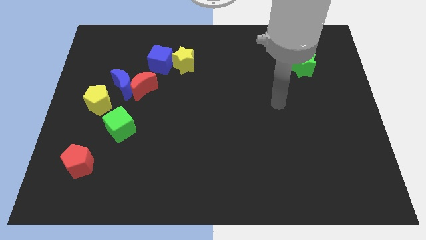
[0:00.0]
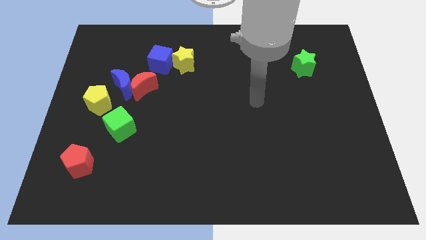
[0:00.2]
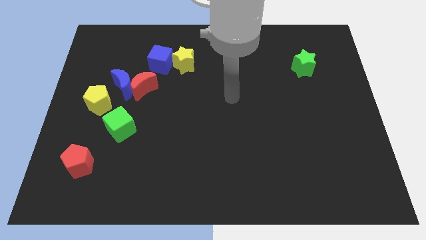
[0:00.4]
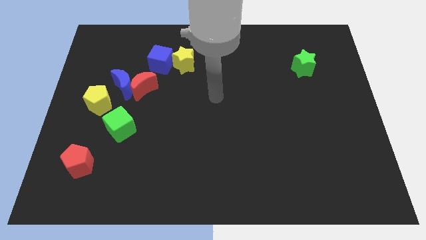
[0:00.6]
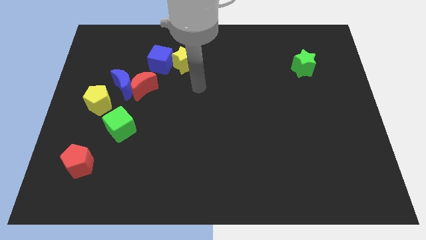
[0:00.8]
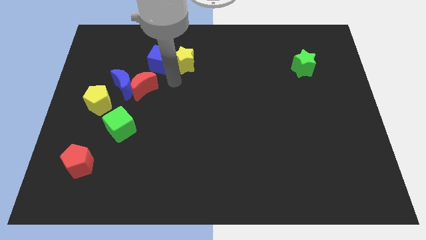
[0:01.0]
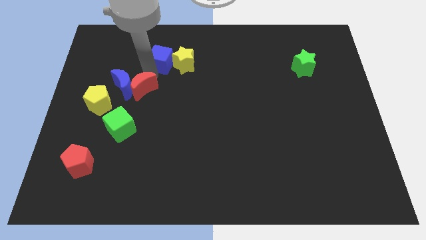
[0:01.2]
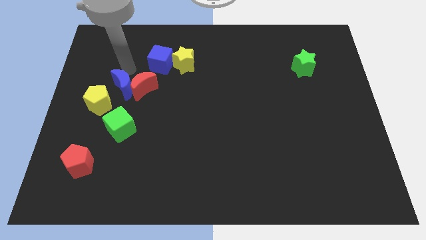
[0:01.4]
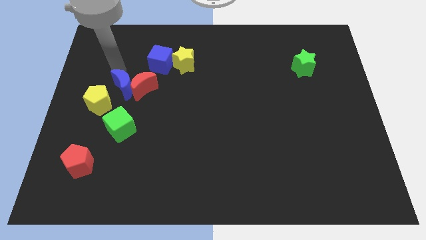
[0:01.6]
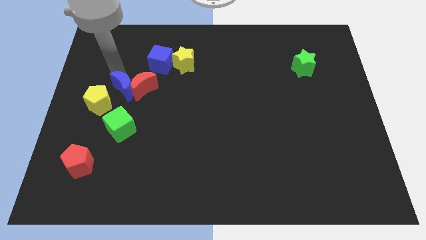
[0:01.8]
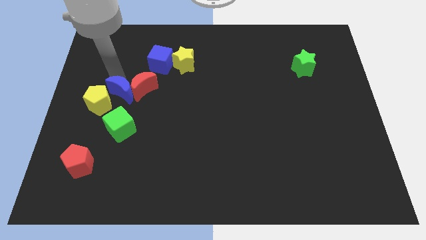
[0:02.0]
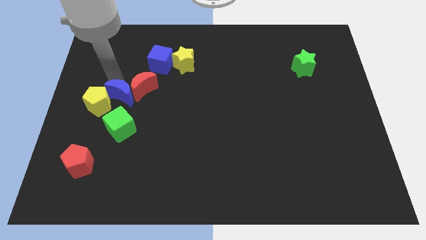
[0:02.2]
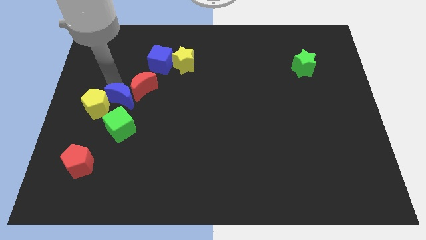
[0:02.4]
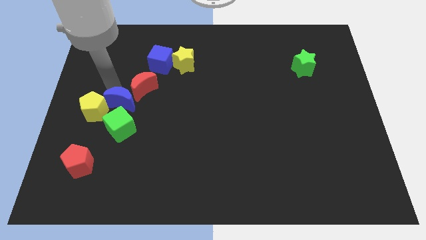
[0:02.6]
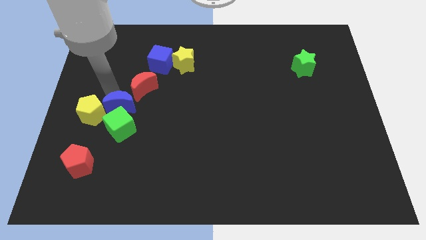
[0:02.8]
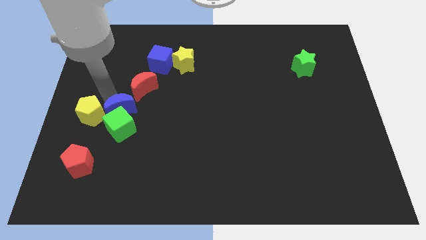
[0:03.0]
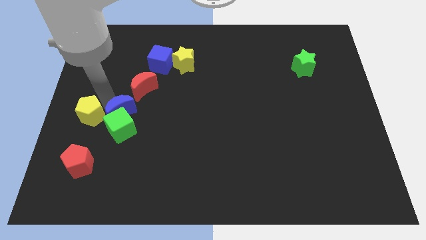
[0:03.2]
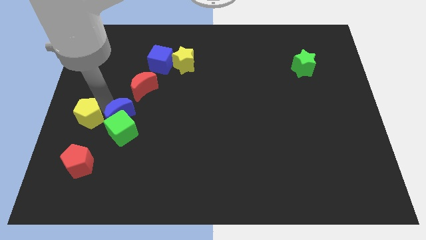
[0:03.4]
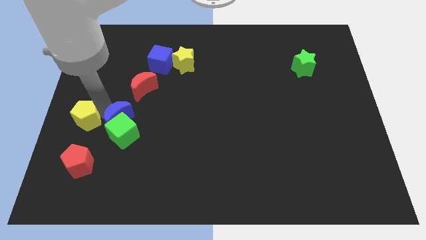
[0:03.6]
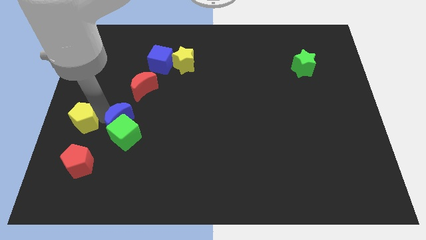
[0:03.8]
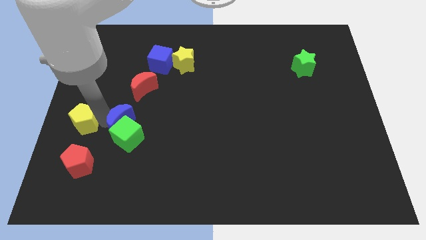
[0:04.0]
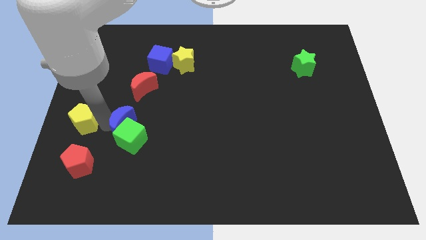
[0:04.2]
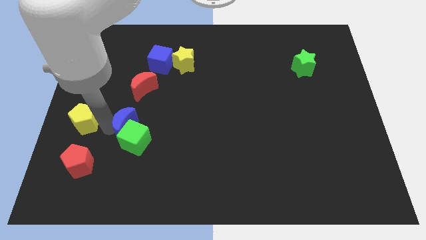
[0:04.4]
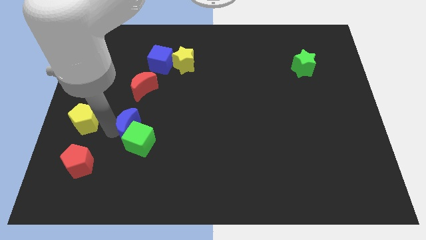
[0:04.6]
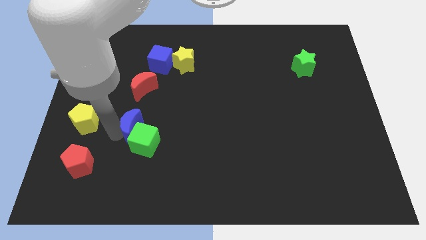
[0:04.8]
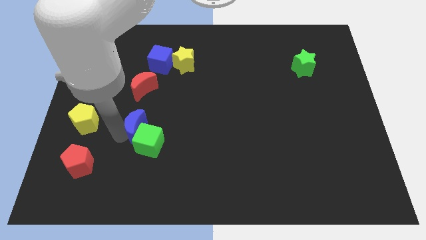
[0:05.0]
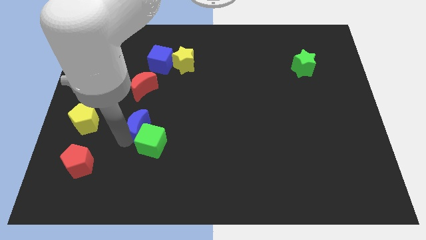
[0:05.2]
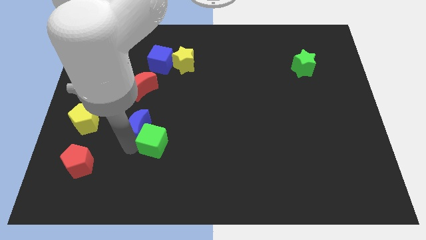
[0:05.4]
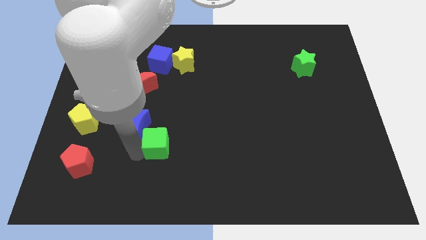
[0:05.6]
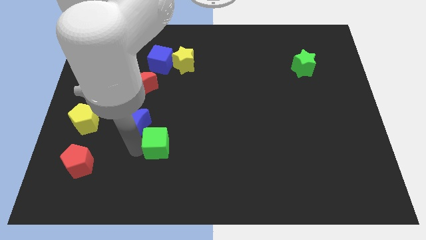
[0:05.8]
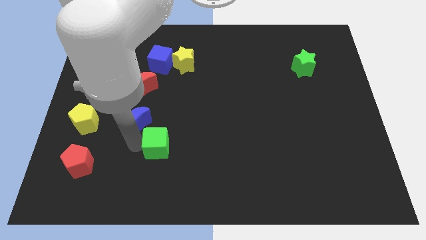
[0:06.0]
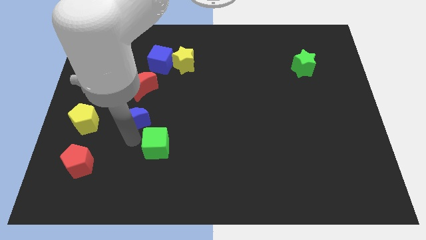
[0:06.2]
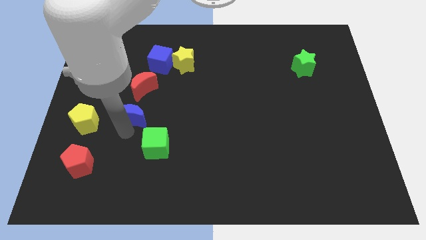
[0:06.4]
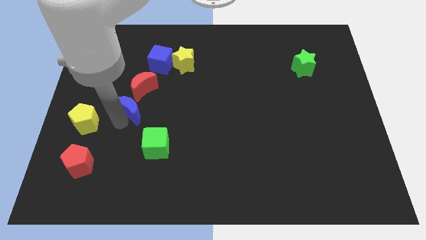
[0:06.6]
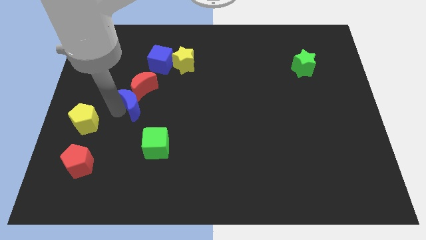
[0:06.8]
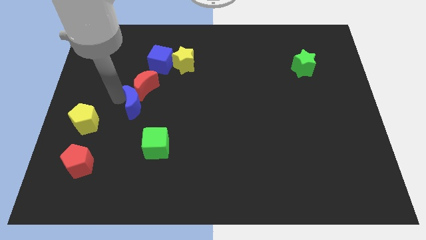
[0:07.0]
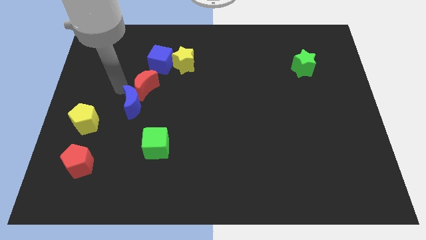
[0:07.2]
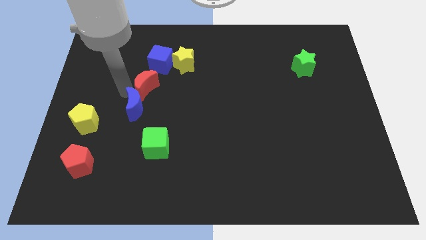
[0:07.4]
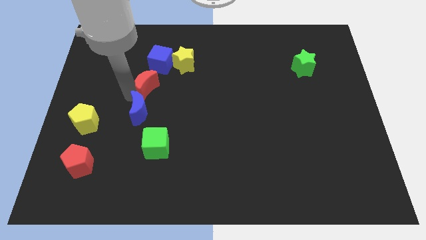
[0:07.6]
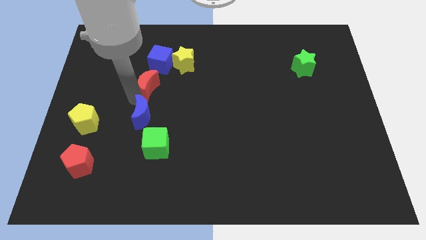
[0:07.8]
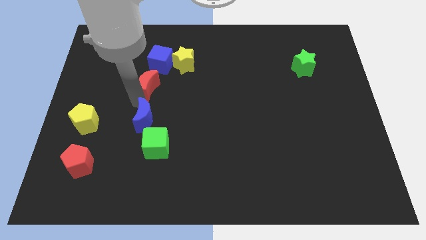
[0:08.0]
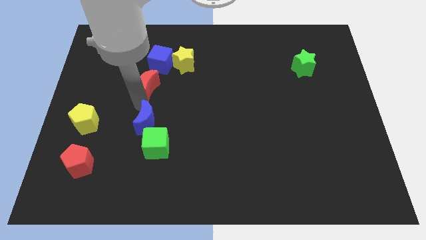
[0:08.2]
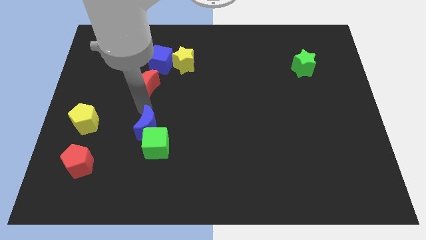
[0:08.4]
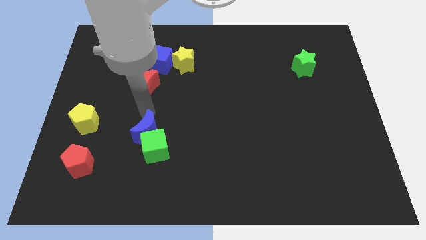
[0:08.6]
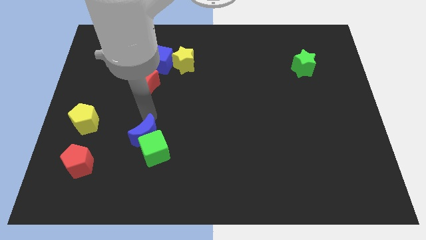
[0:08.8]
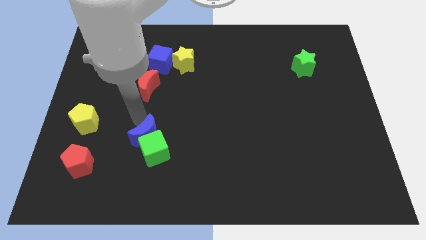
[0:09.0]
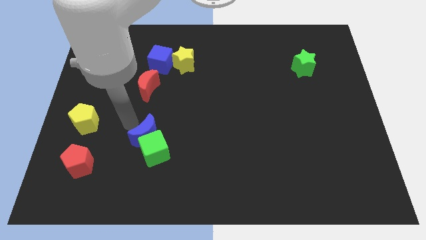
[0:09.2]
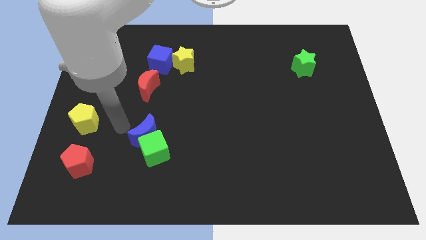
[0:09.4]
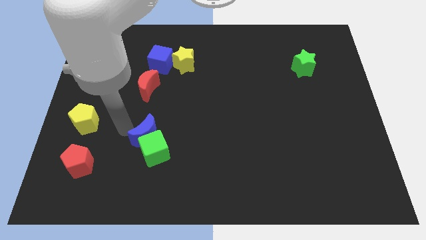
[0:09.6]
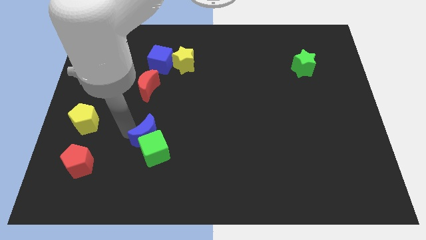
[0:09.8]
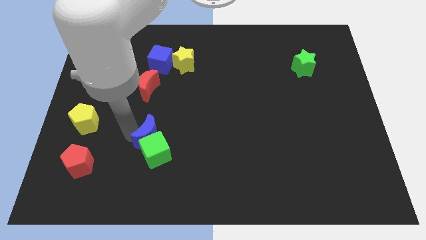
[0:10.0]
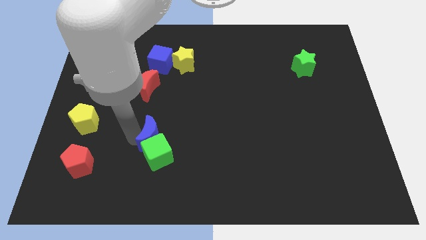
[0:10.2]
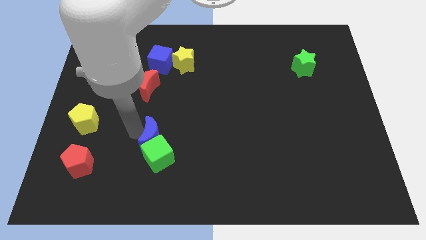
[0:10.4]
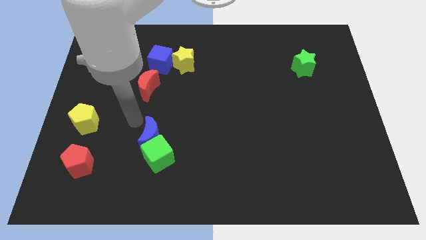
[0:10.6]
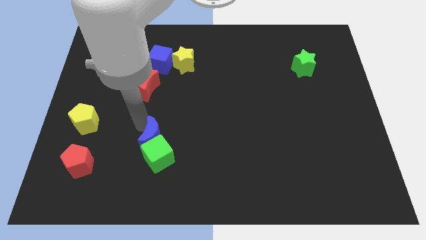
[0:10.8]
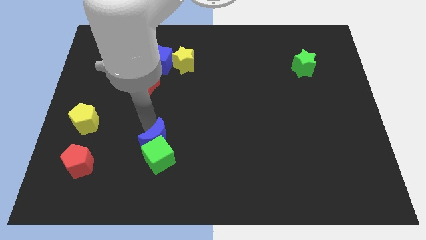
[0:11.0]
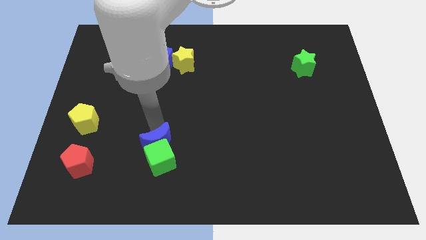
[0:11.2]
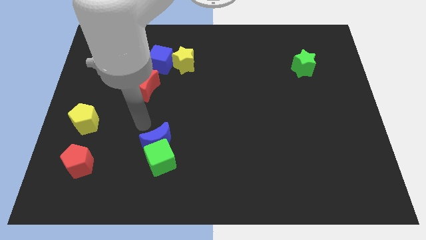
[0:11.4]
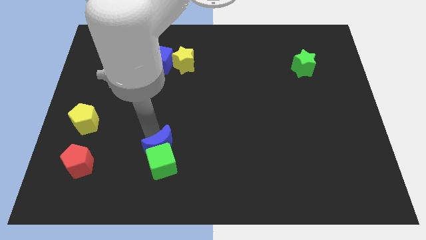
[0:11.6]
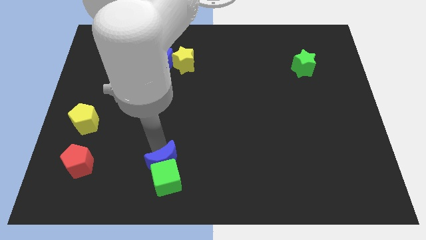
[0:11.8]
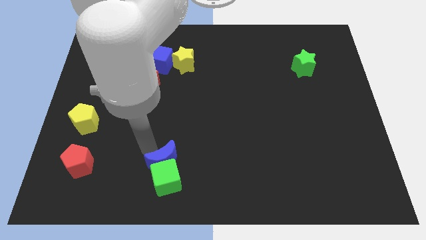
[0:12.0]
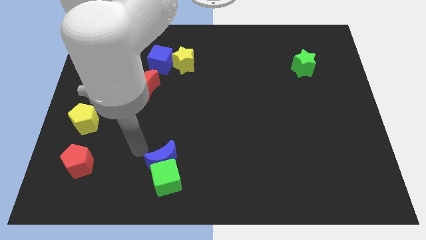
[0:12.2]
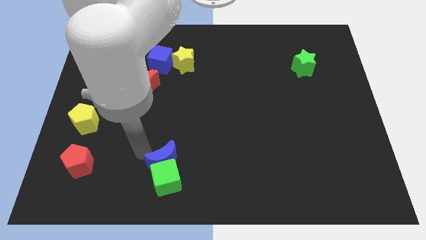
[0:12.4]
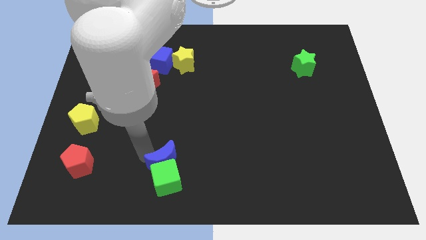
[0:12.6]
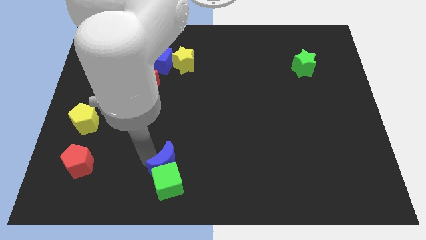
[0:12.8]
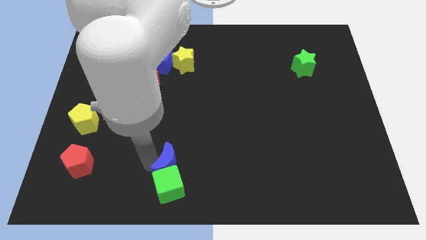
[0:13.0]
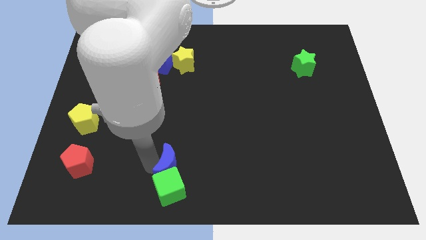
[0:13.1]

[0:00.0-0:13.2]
put the blue moon to the bottom
